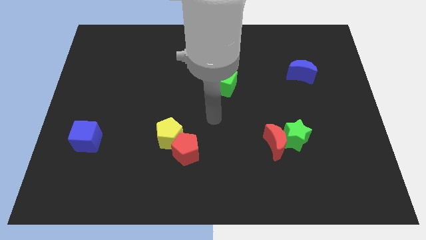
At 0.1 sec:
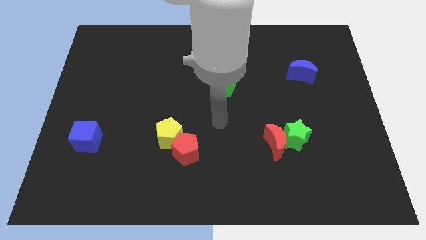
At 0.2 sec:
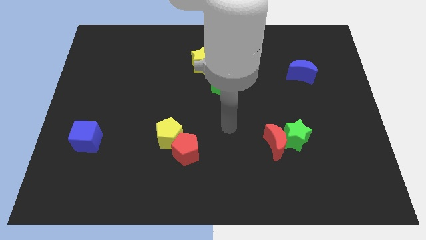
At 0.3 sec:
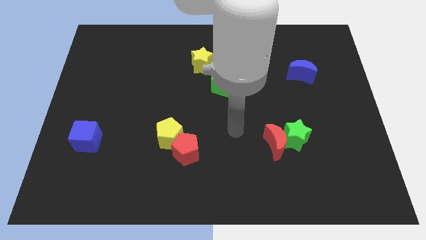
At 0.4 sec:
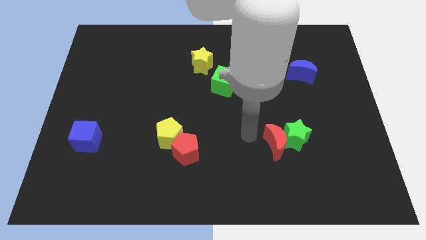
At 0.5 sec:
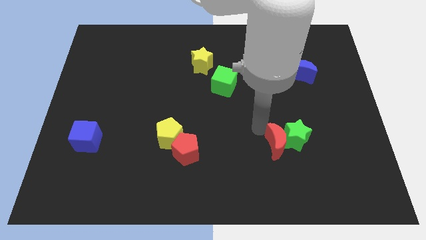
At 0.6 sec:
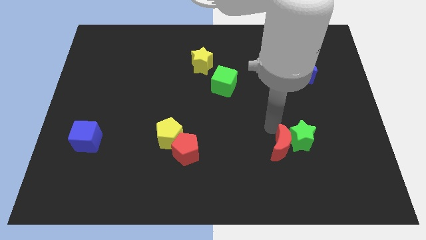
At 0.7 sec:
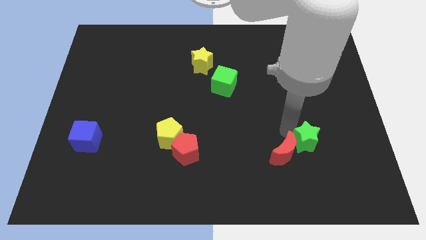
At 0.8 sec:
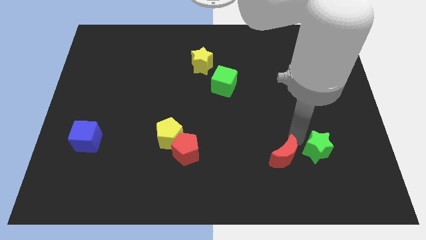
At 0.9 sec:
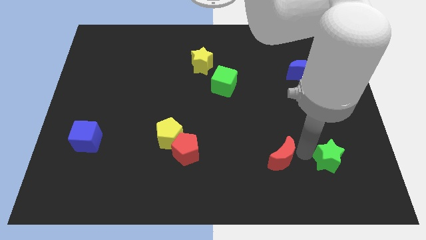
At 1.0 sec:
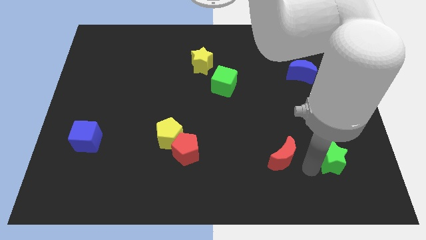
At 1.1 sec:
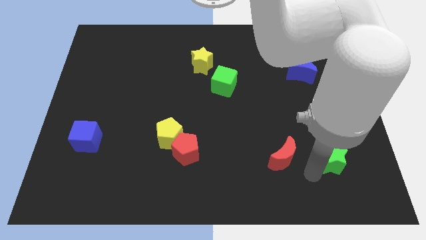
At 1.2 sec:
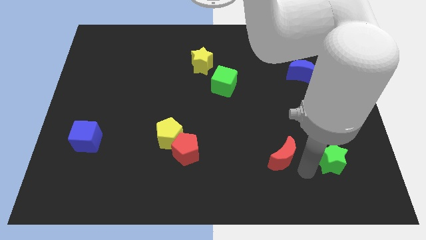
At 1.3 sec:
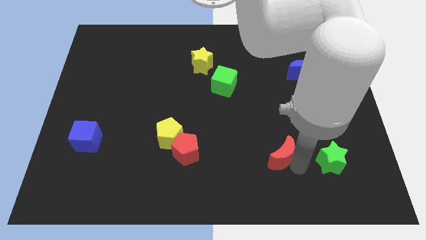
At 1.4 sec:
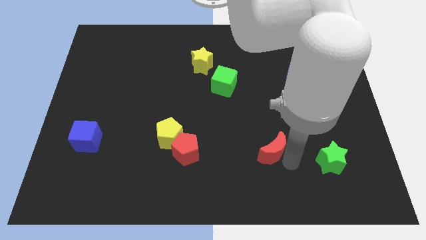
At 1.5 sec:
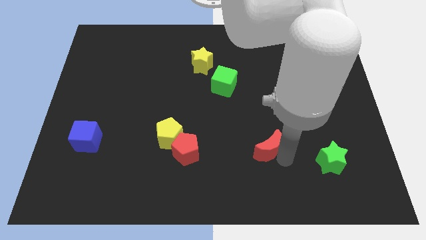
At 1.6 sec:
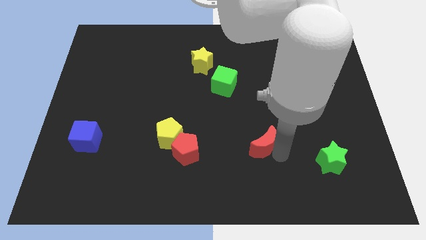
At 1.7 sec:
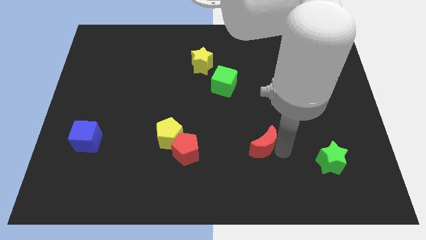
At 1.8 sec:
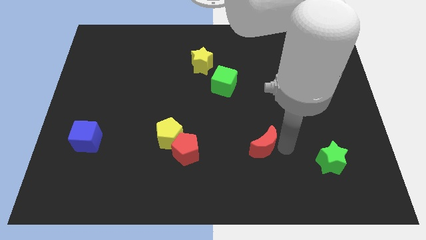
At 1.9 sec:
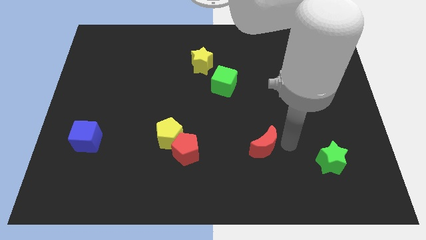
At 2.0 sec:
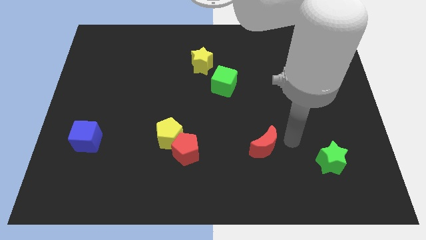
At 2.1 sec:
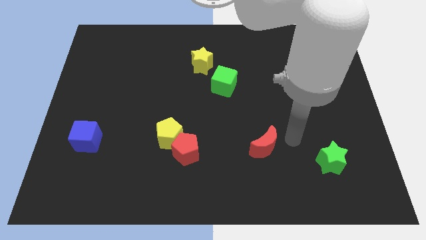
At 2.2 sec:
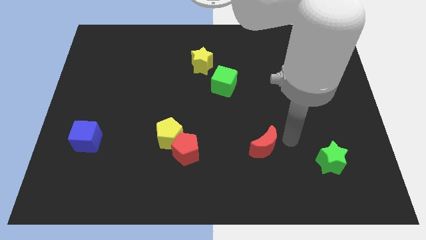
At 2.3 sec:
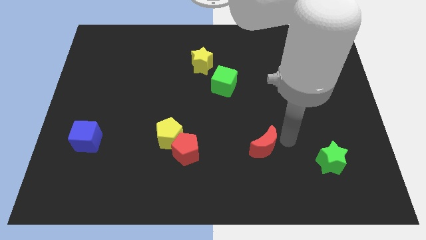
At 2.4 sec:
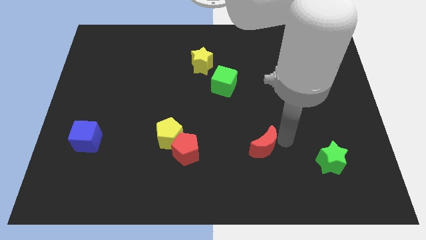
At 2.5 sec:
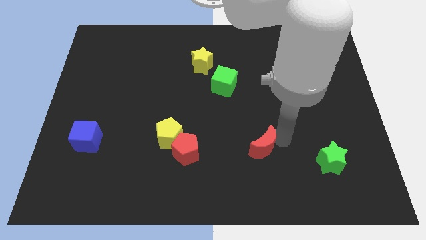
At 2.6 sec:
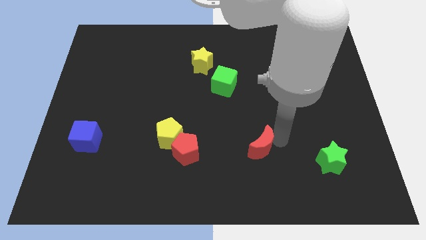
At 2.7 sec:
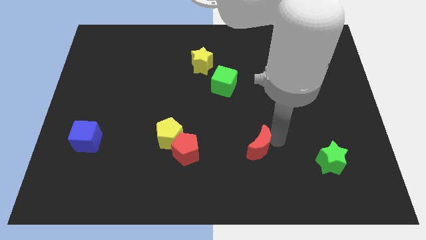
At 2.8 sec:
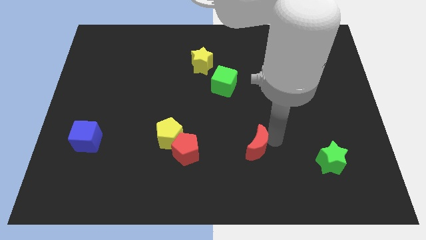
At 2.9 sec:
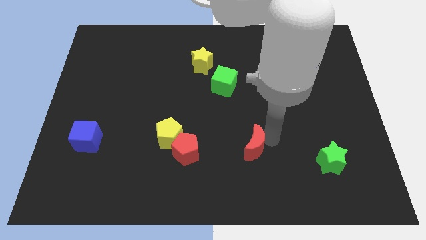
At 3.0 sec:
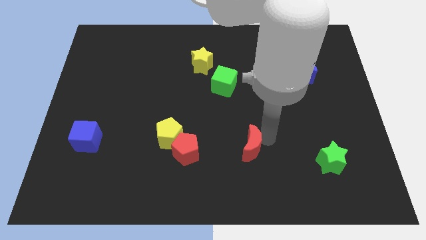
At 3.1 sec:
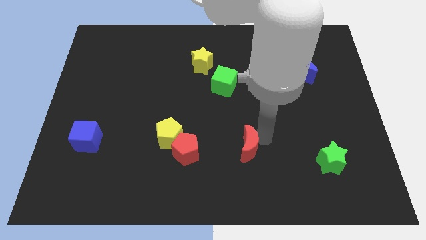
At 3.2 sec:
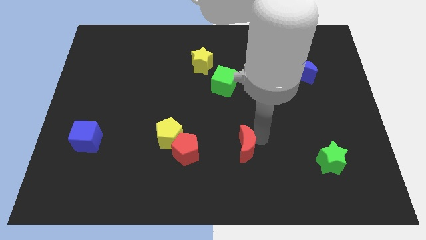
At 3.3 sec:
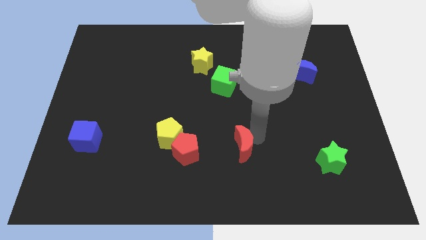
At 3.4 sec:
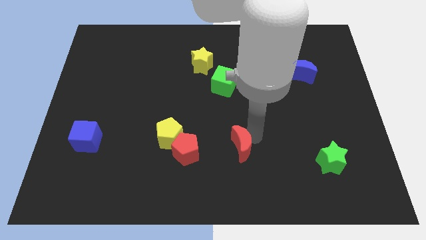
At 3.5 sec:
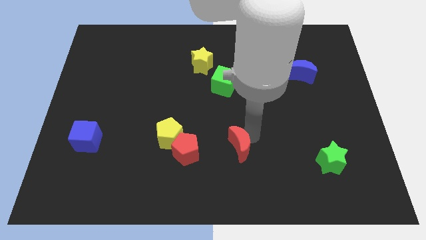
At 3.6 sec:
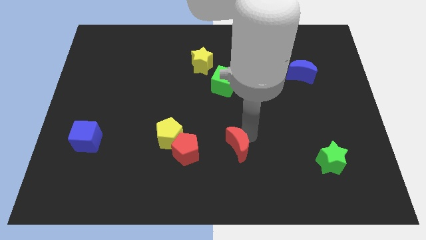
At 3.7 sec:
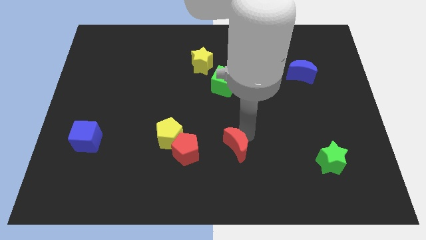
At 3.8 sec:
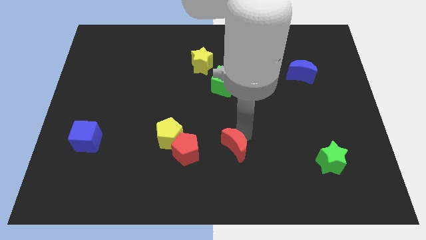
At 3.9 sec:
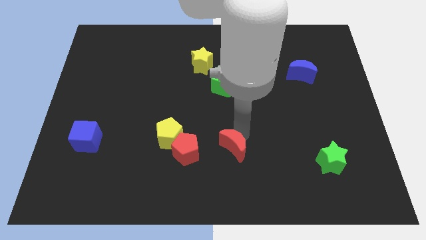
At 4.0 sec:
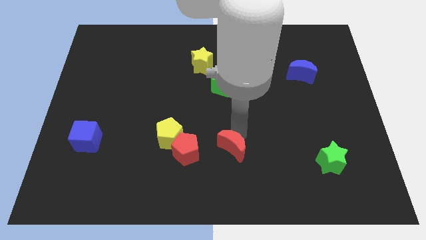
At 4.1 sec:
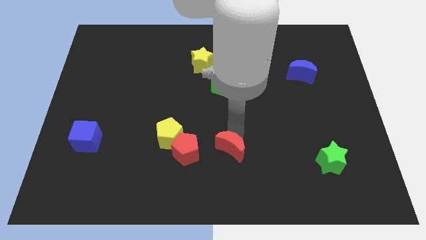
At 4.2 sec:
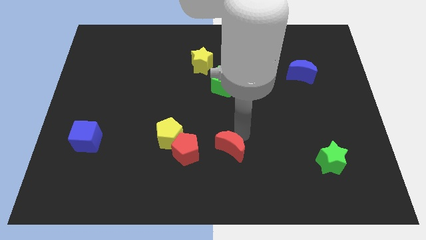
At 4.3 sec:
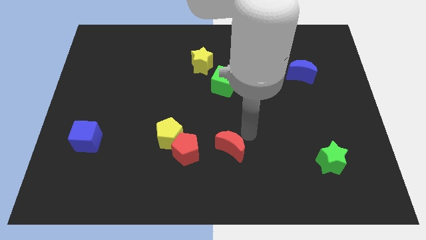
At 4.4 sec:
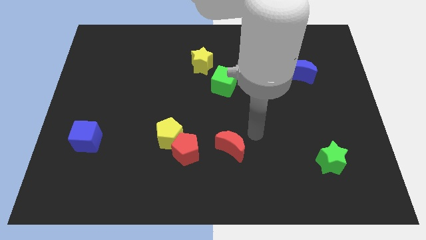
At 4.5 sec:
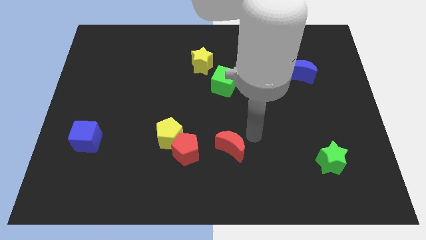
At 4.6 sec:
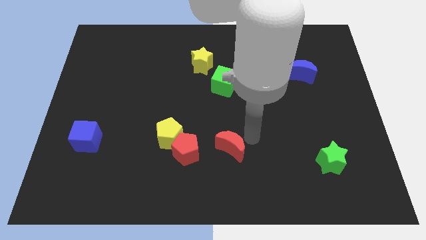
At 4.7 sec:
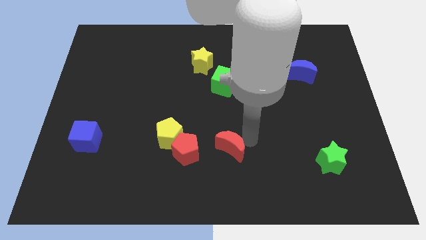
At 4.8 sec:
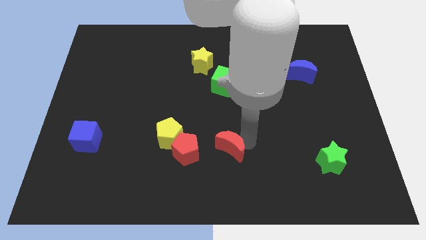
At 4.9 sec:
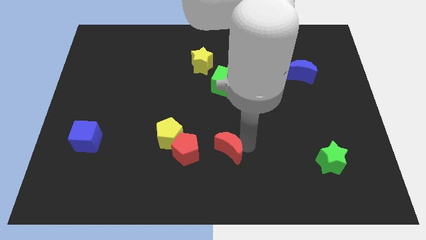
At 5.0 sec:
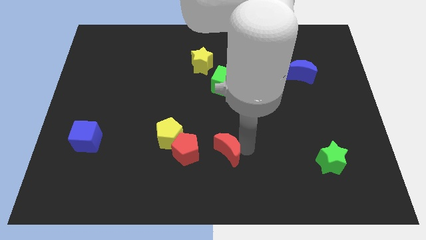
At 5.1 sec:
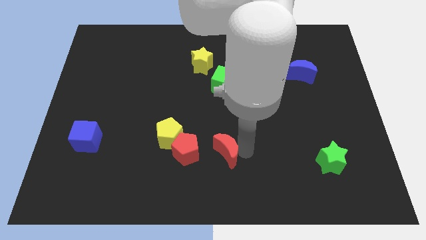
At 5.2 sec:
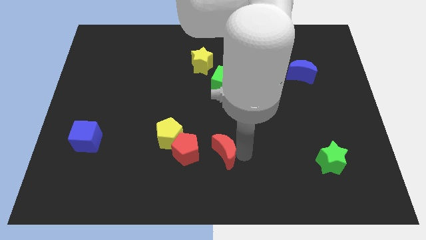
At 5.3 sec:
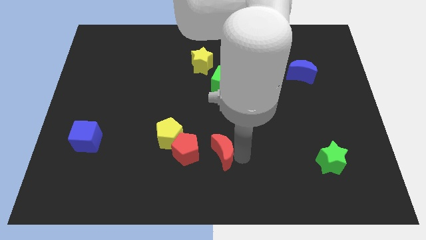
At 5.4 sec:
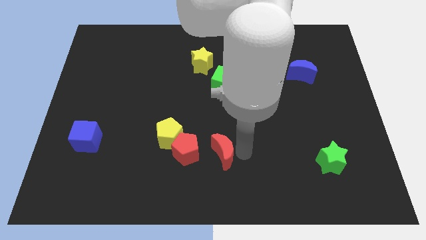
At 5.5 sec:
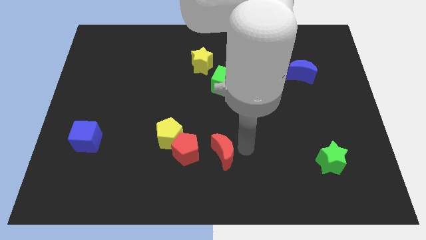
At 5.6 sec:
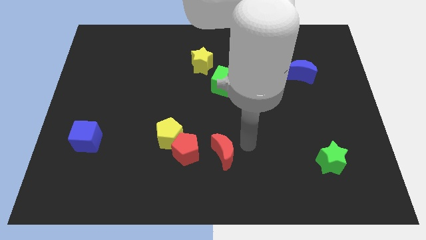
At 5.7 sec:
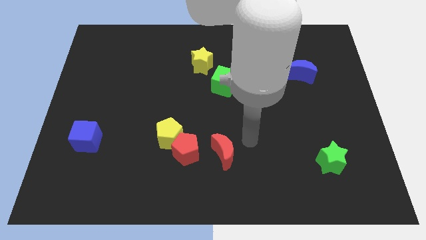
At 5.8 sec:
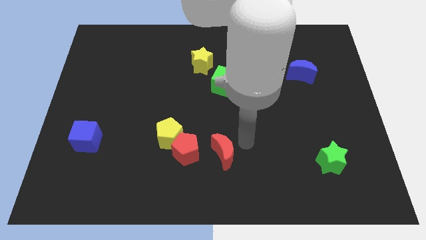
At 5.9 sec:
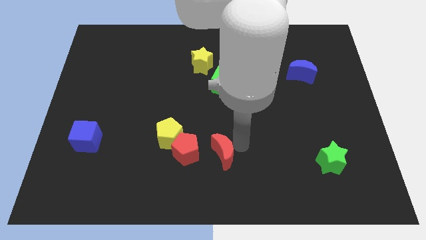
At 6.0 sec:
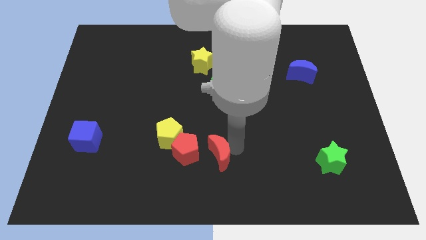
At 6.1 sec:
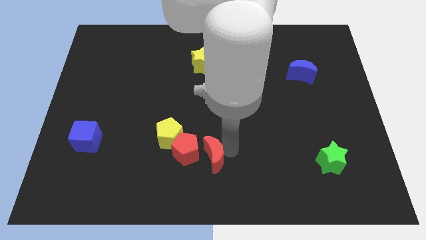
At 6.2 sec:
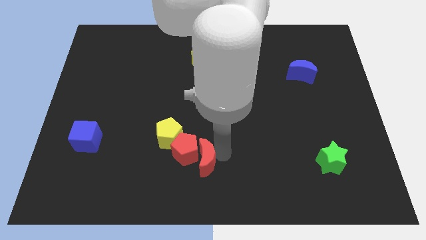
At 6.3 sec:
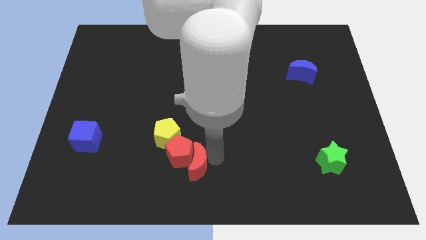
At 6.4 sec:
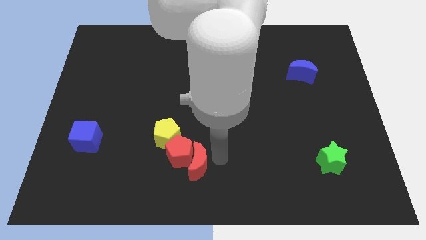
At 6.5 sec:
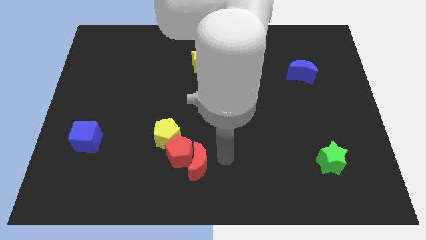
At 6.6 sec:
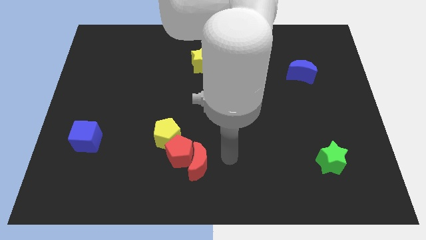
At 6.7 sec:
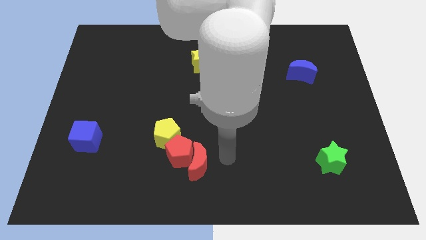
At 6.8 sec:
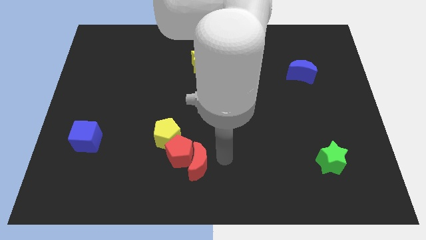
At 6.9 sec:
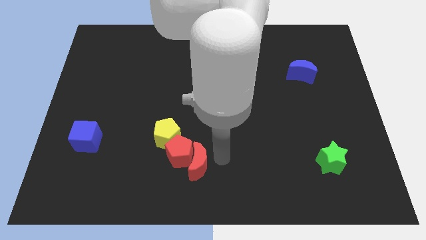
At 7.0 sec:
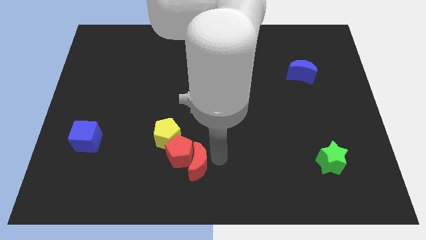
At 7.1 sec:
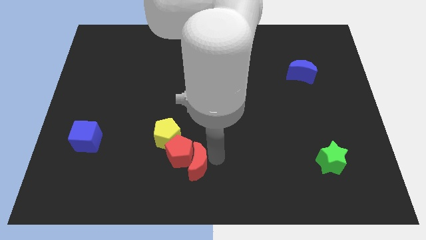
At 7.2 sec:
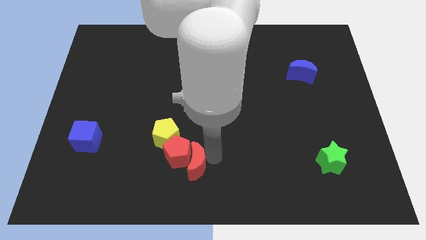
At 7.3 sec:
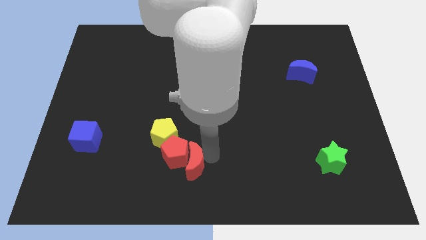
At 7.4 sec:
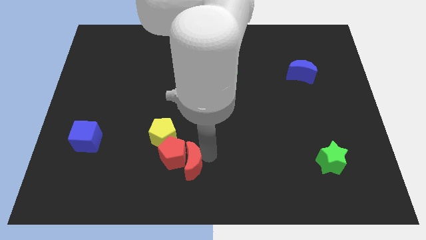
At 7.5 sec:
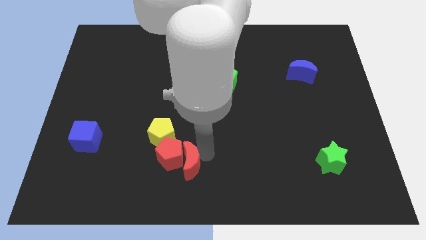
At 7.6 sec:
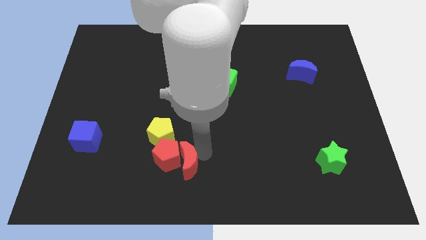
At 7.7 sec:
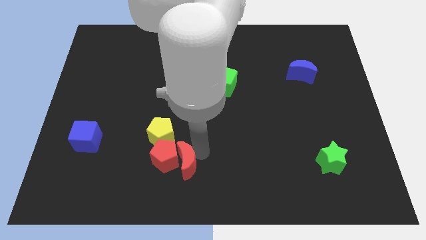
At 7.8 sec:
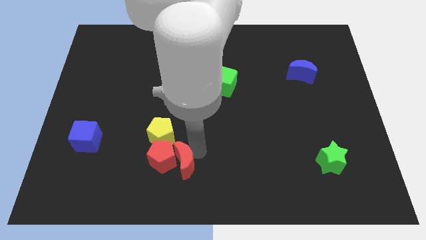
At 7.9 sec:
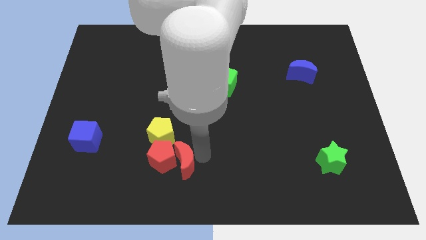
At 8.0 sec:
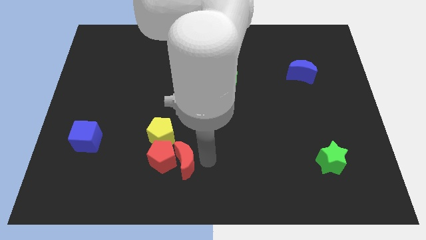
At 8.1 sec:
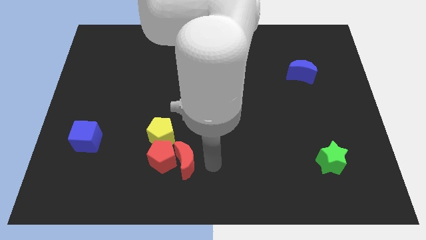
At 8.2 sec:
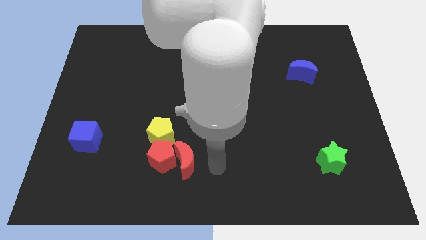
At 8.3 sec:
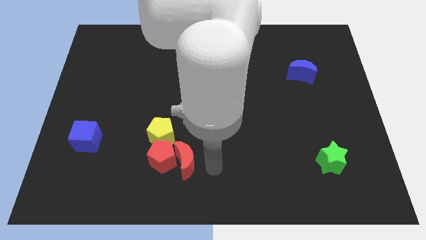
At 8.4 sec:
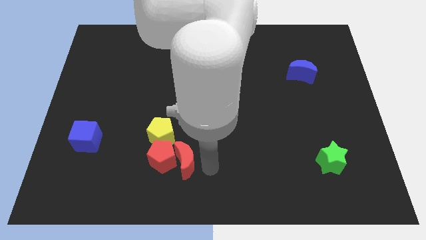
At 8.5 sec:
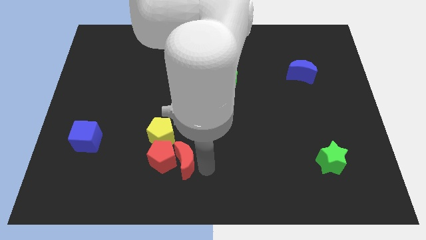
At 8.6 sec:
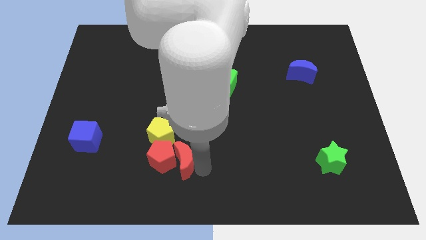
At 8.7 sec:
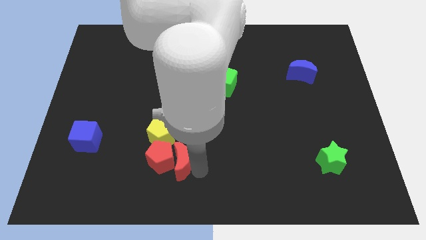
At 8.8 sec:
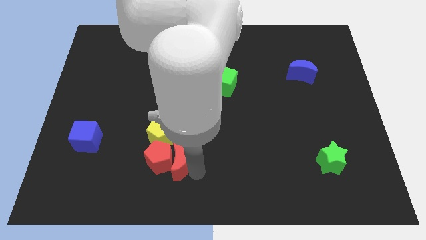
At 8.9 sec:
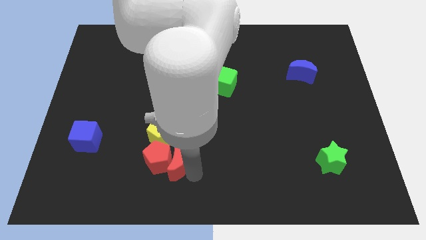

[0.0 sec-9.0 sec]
slide the red moon left
